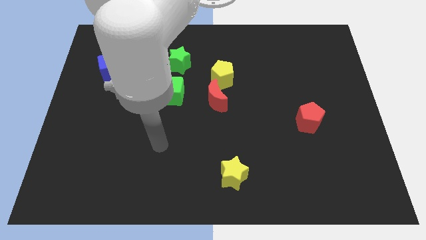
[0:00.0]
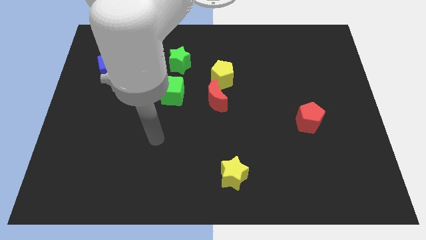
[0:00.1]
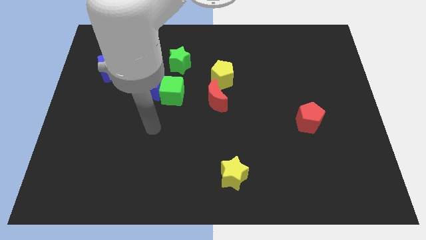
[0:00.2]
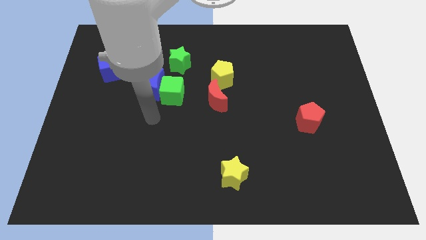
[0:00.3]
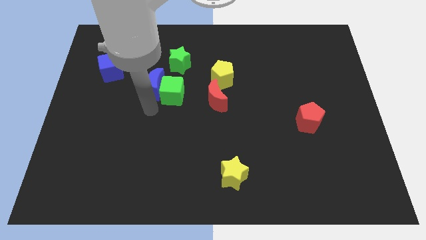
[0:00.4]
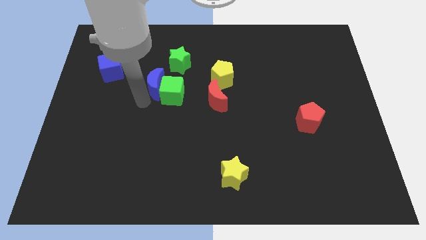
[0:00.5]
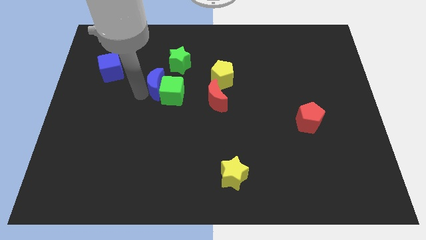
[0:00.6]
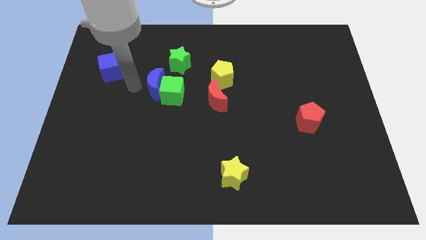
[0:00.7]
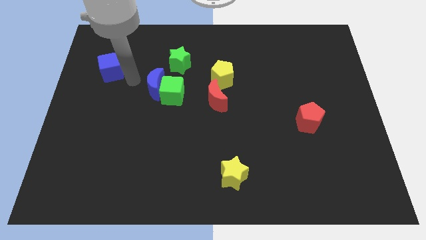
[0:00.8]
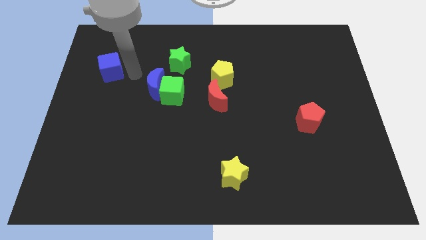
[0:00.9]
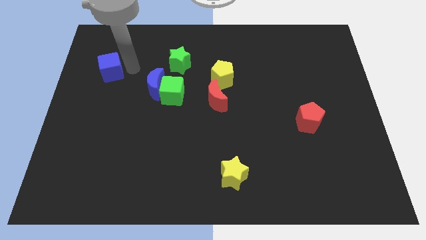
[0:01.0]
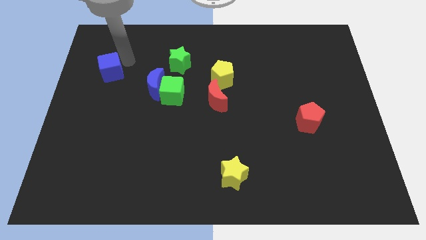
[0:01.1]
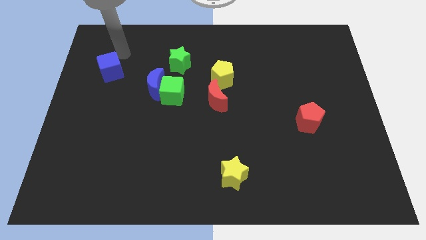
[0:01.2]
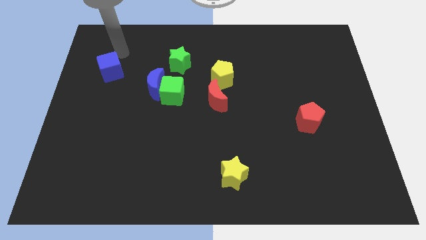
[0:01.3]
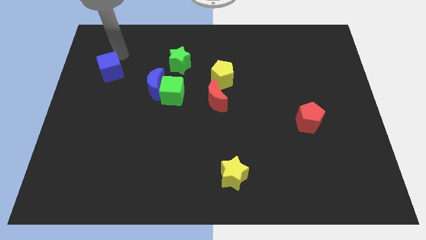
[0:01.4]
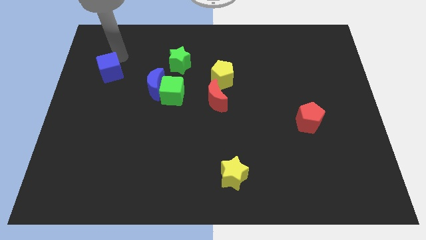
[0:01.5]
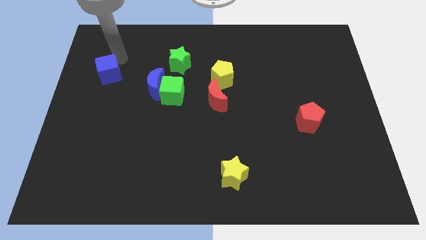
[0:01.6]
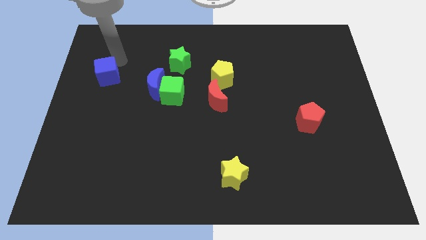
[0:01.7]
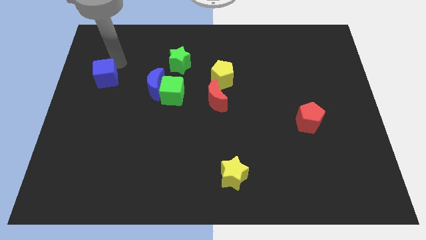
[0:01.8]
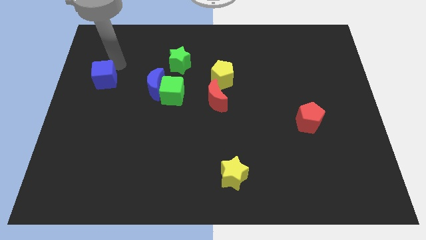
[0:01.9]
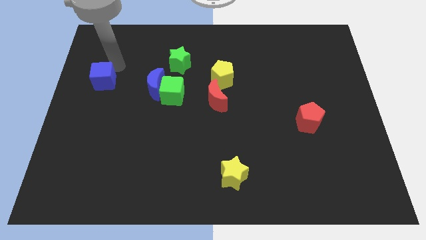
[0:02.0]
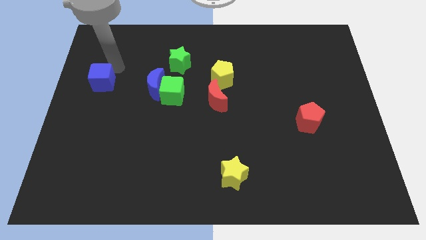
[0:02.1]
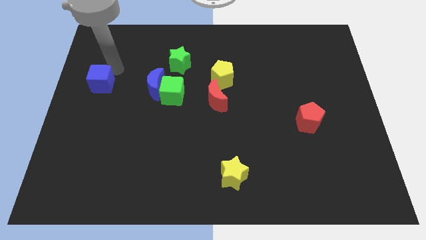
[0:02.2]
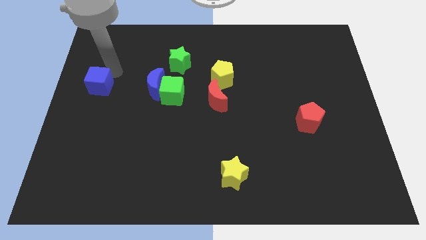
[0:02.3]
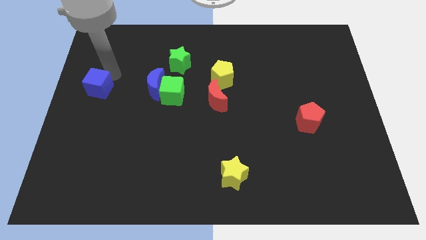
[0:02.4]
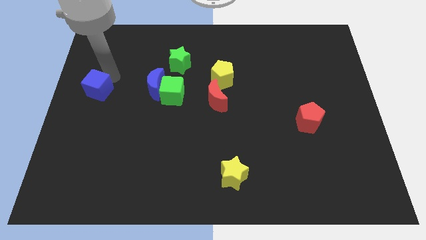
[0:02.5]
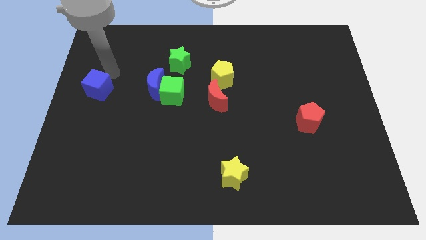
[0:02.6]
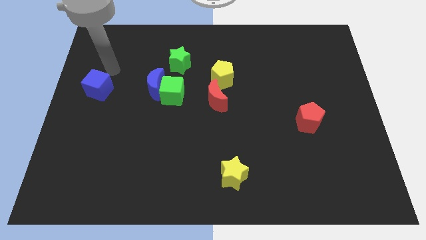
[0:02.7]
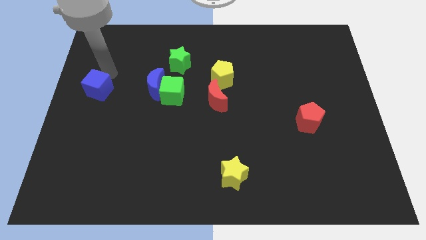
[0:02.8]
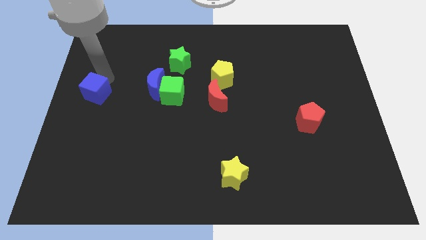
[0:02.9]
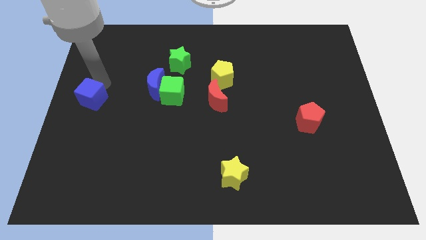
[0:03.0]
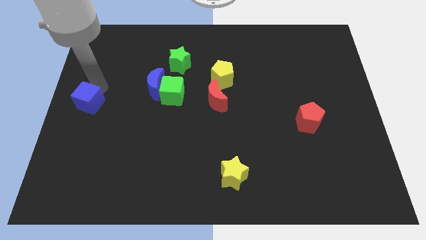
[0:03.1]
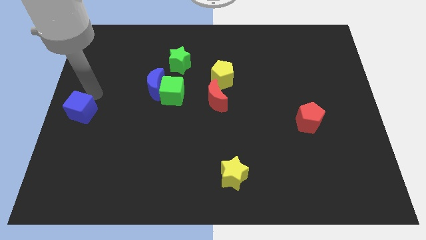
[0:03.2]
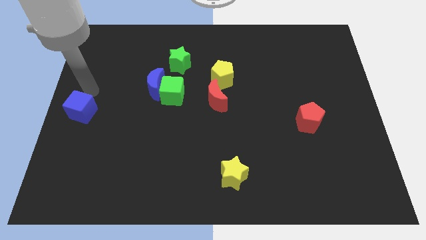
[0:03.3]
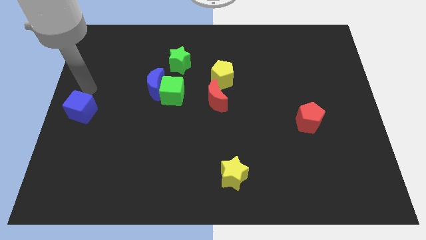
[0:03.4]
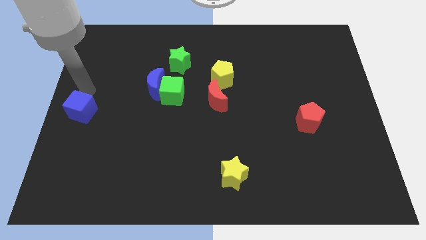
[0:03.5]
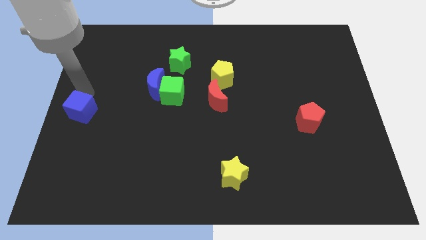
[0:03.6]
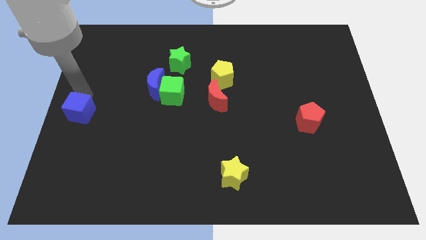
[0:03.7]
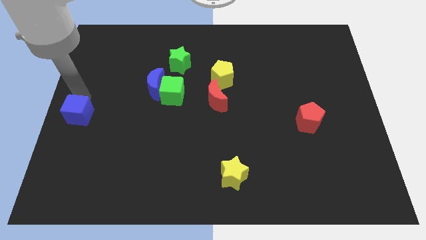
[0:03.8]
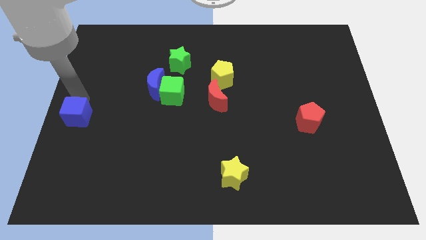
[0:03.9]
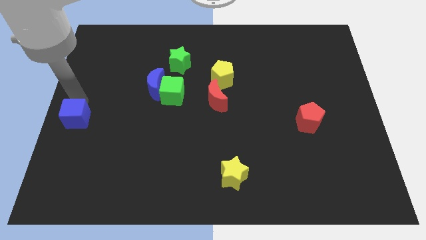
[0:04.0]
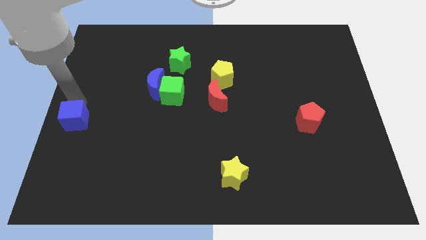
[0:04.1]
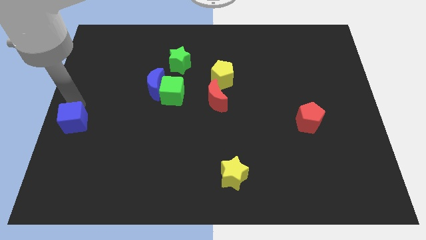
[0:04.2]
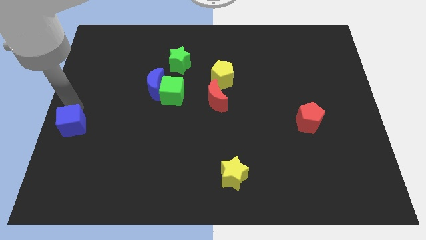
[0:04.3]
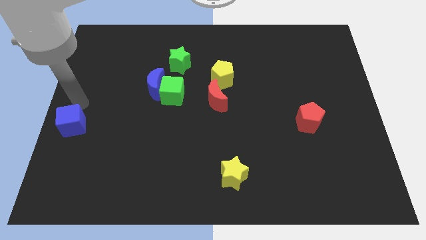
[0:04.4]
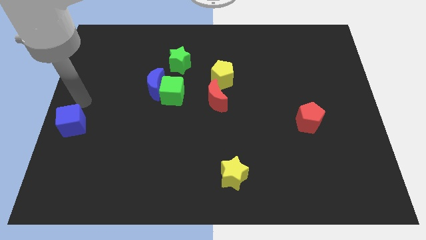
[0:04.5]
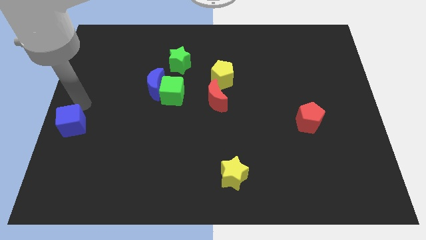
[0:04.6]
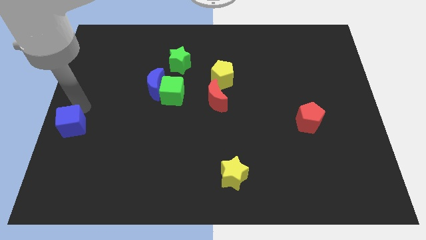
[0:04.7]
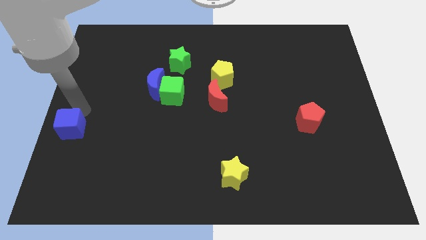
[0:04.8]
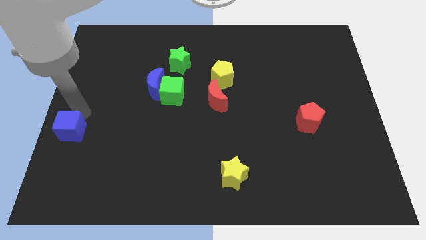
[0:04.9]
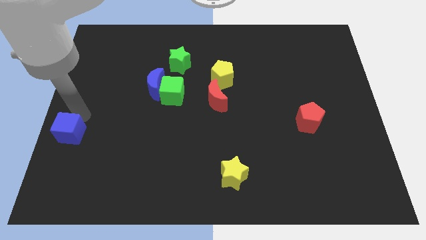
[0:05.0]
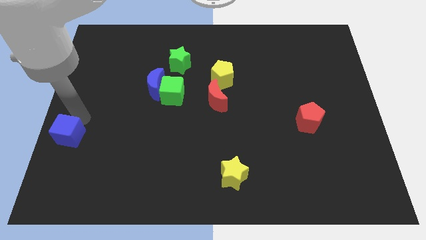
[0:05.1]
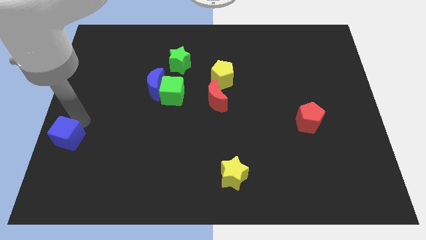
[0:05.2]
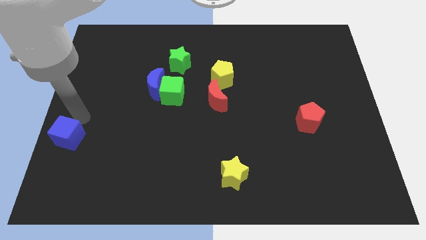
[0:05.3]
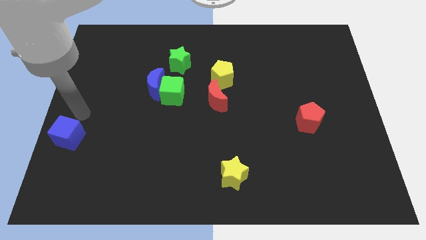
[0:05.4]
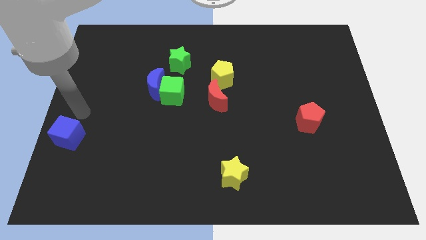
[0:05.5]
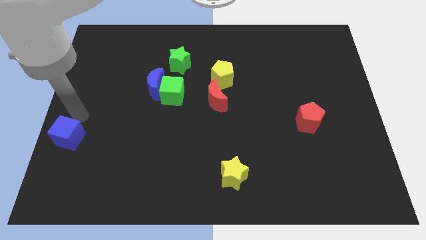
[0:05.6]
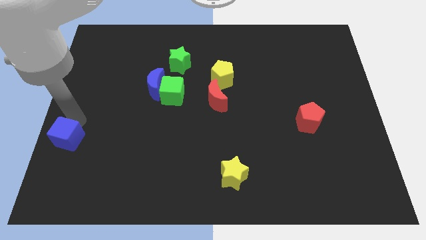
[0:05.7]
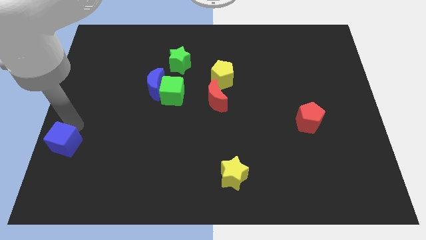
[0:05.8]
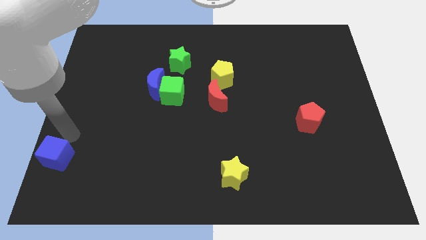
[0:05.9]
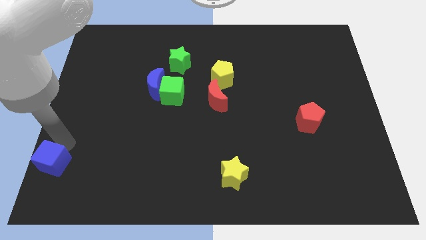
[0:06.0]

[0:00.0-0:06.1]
slide the blue cube to the bottom left

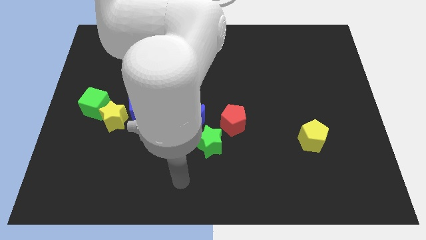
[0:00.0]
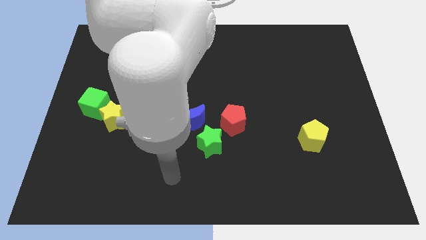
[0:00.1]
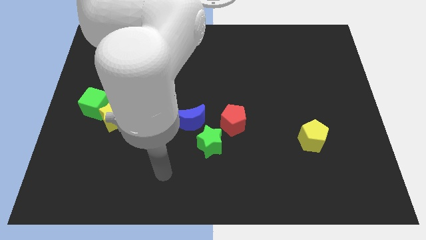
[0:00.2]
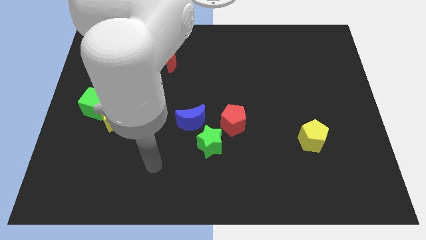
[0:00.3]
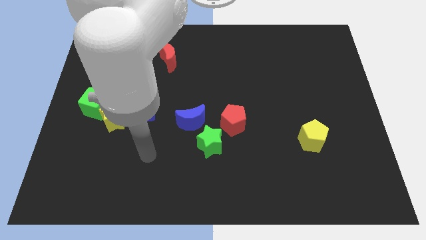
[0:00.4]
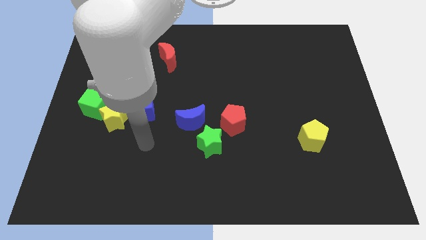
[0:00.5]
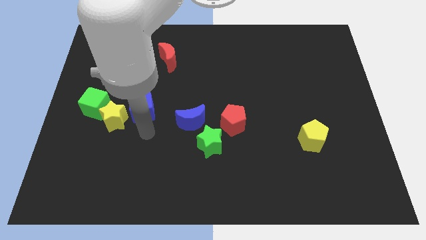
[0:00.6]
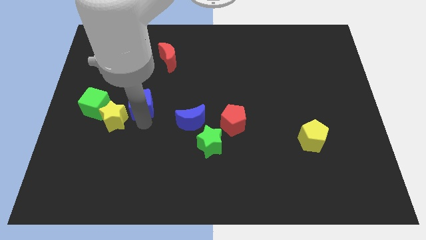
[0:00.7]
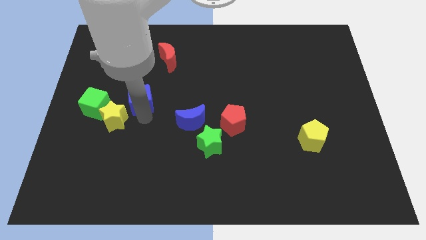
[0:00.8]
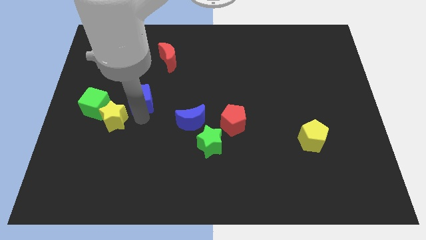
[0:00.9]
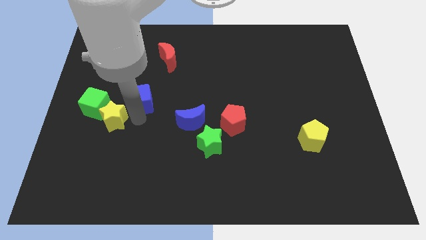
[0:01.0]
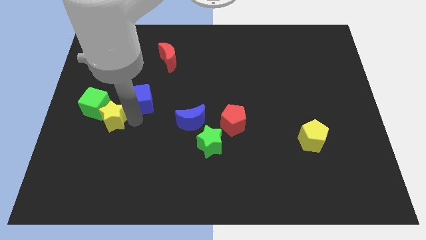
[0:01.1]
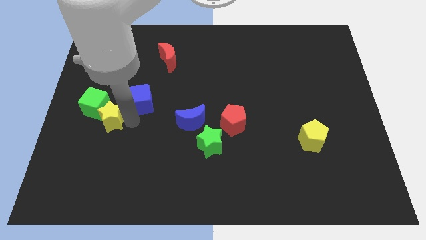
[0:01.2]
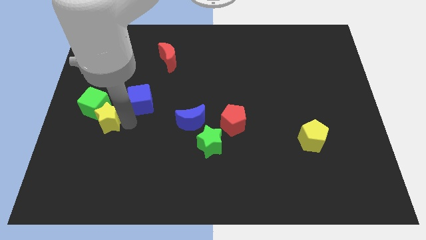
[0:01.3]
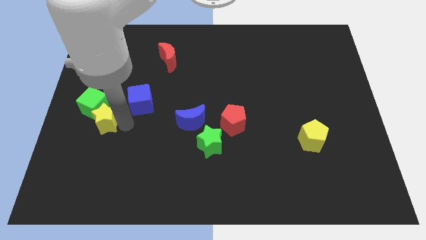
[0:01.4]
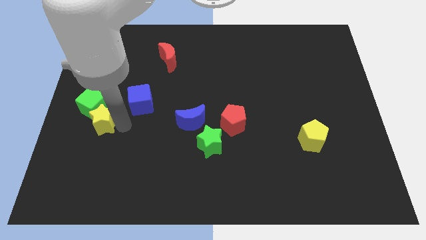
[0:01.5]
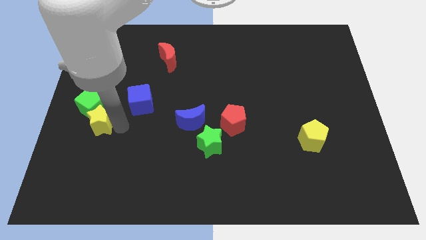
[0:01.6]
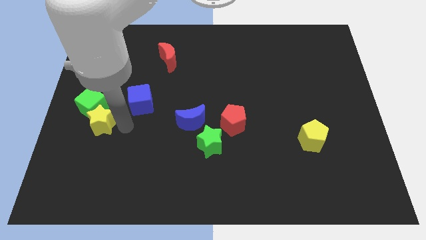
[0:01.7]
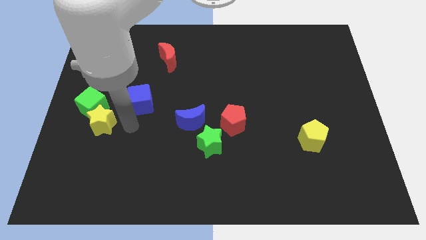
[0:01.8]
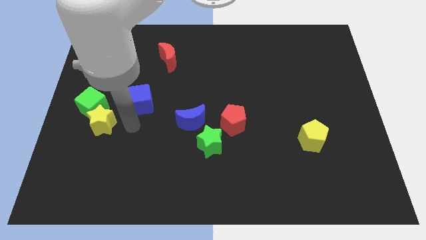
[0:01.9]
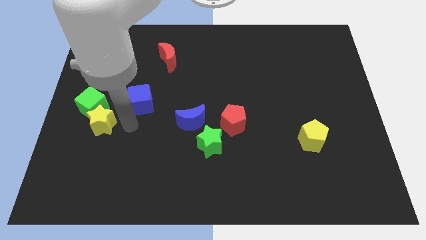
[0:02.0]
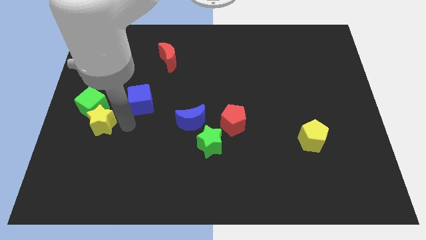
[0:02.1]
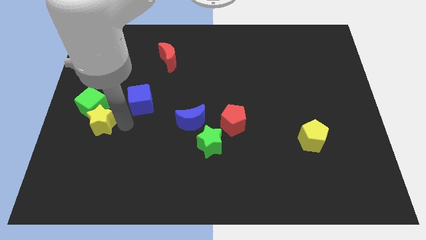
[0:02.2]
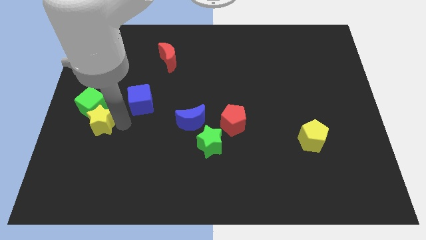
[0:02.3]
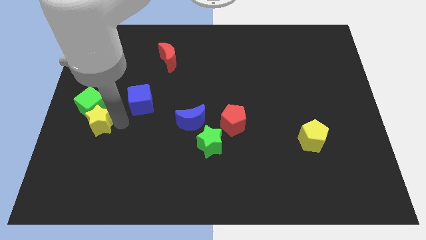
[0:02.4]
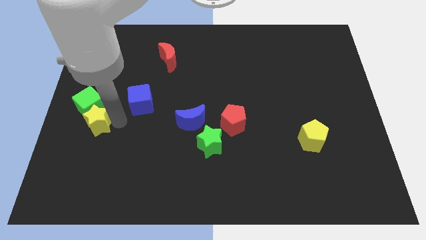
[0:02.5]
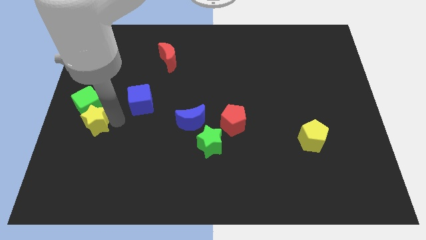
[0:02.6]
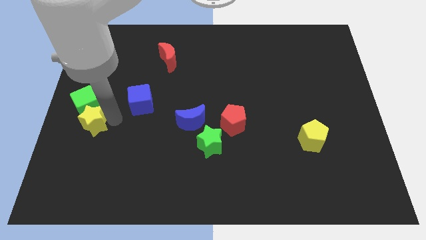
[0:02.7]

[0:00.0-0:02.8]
move the yellow star to the left side
